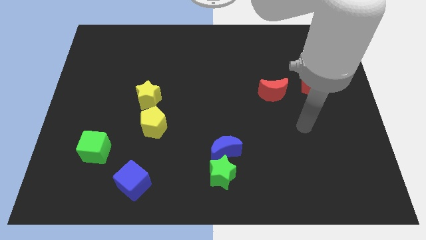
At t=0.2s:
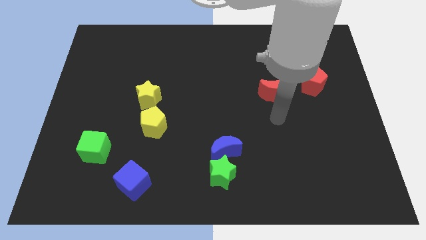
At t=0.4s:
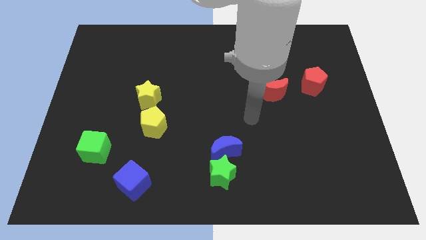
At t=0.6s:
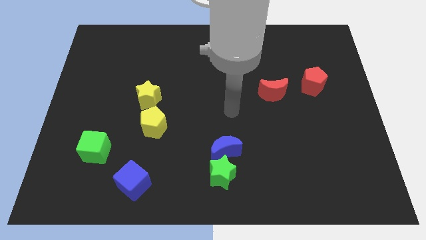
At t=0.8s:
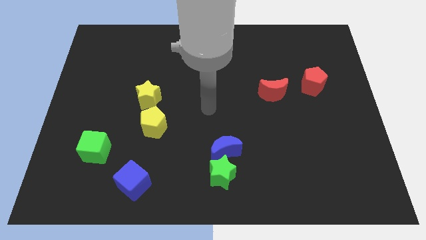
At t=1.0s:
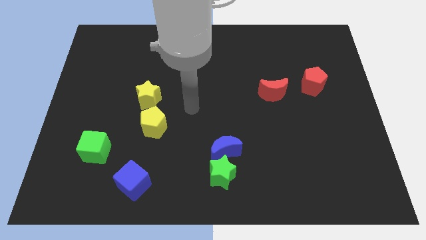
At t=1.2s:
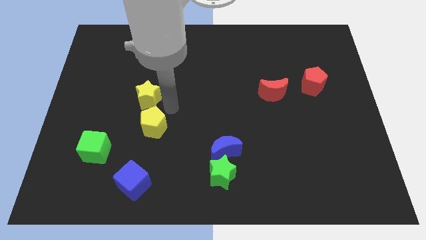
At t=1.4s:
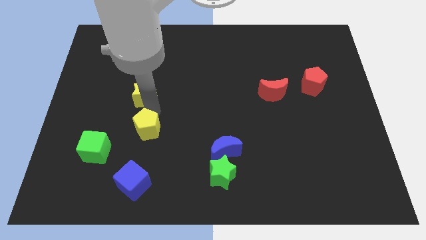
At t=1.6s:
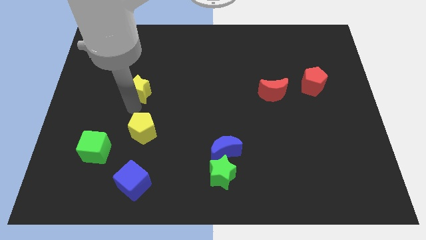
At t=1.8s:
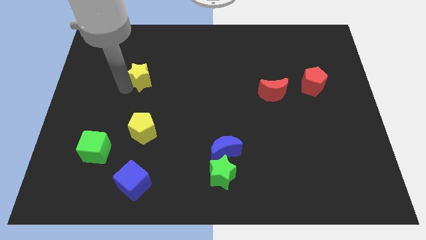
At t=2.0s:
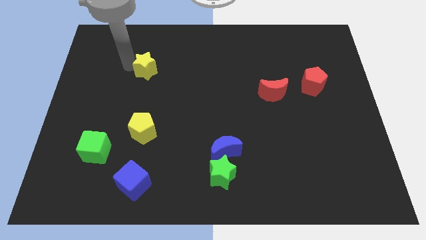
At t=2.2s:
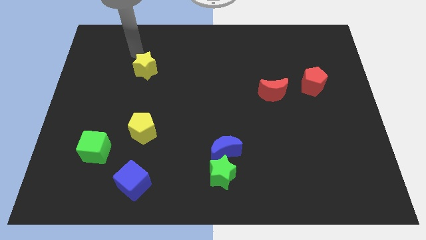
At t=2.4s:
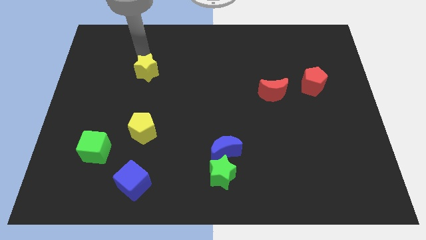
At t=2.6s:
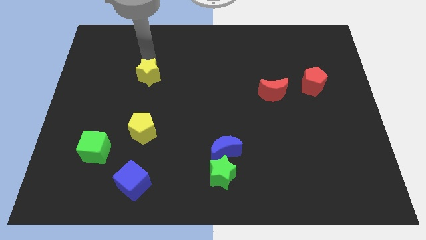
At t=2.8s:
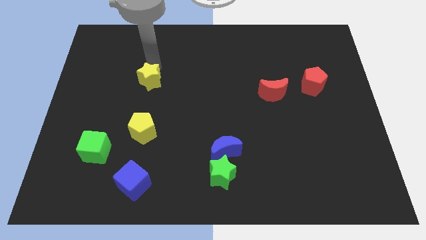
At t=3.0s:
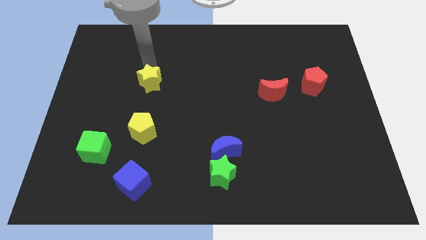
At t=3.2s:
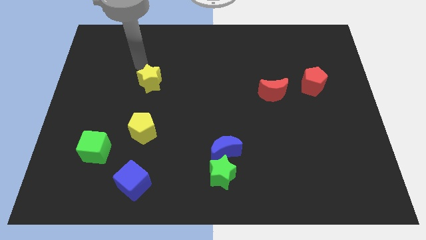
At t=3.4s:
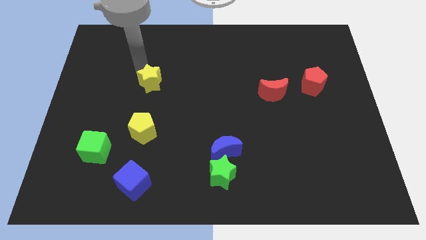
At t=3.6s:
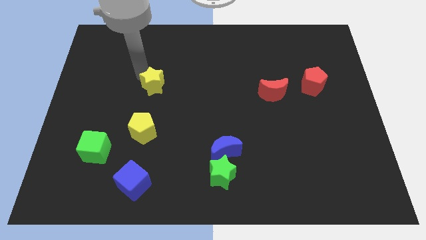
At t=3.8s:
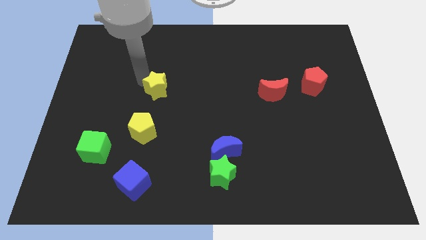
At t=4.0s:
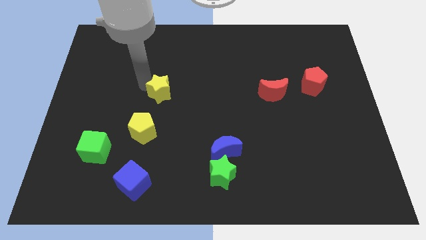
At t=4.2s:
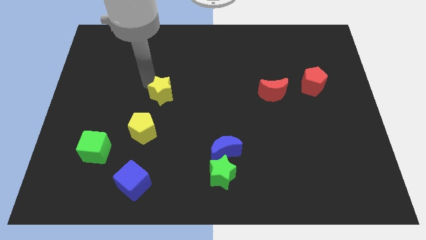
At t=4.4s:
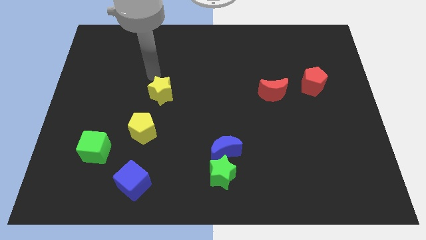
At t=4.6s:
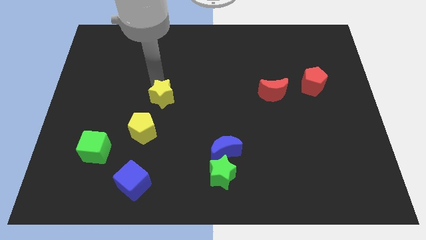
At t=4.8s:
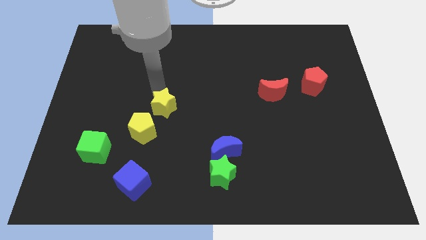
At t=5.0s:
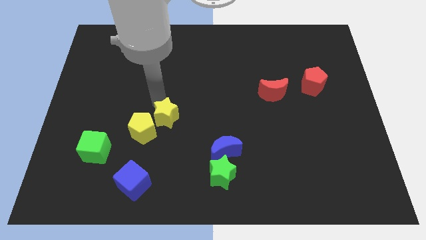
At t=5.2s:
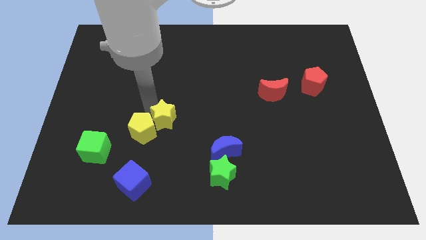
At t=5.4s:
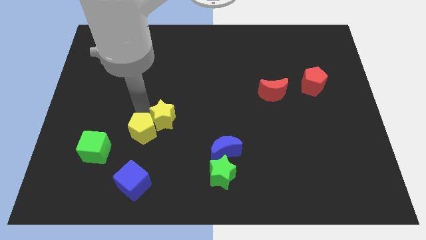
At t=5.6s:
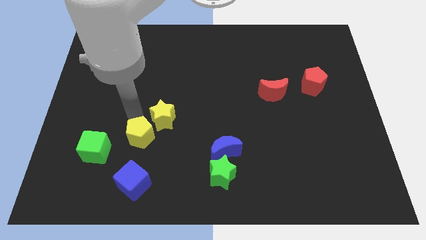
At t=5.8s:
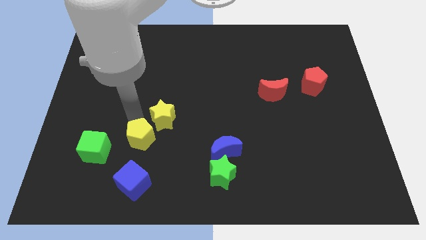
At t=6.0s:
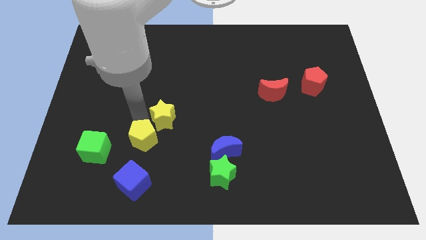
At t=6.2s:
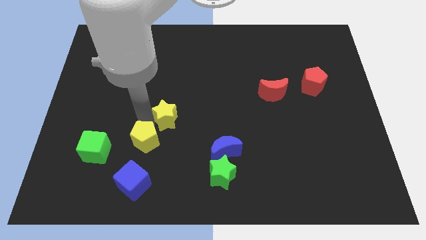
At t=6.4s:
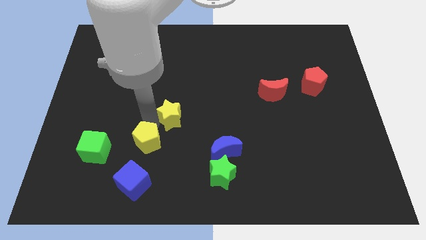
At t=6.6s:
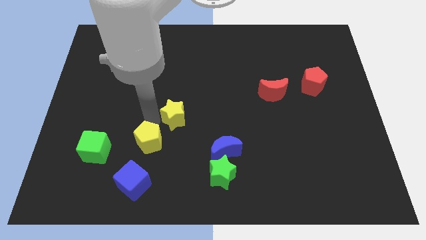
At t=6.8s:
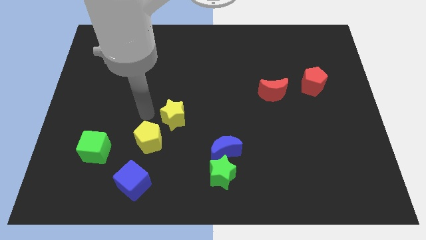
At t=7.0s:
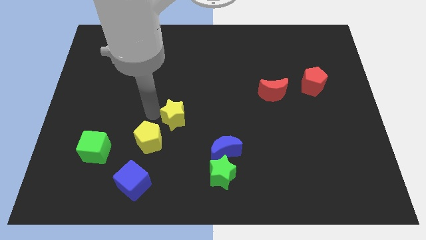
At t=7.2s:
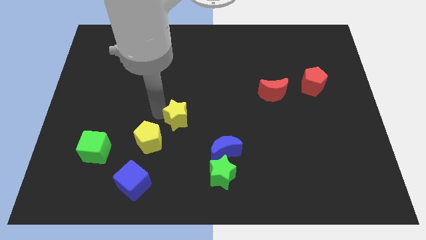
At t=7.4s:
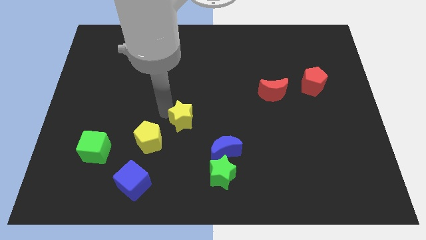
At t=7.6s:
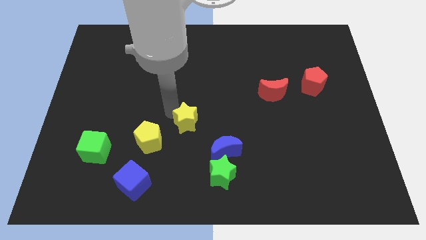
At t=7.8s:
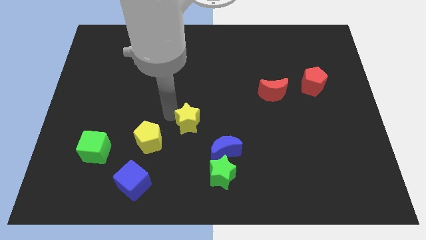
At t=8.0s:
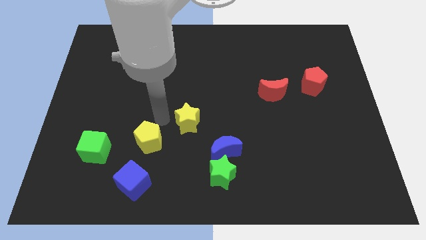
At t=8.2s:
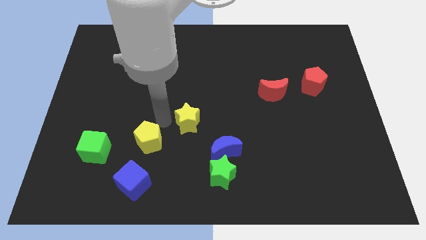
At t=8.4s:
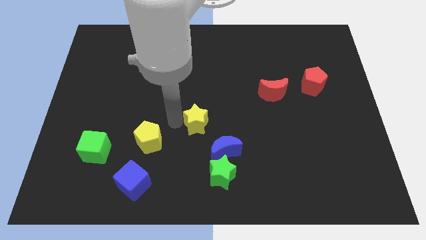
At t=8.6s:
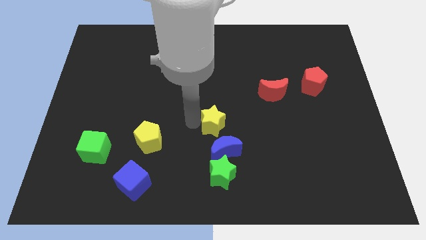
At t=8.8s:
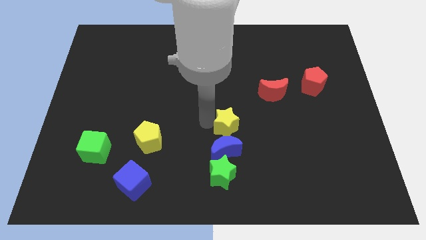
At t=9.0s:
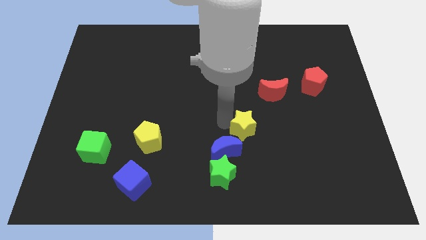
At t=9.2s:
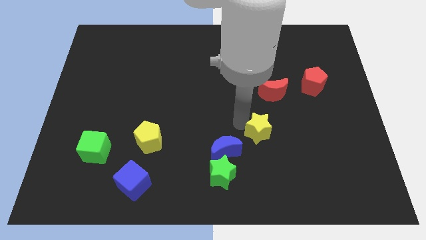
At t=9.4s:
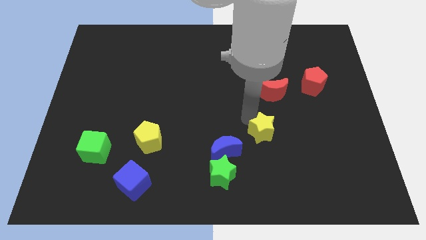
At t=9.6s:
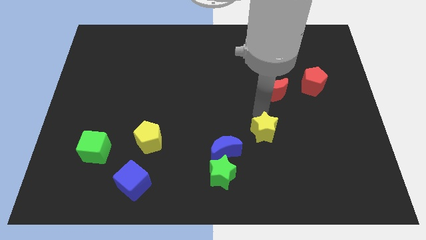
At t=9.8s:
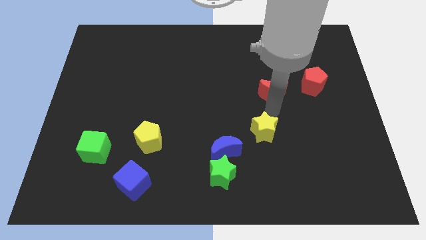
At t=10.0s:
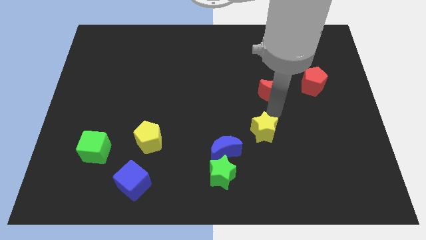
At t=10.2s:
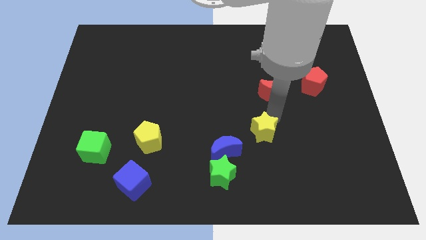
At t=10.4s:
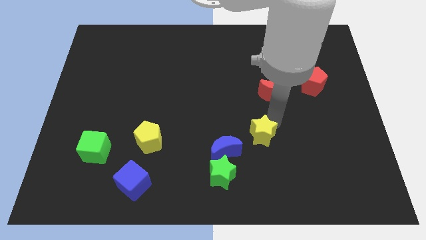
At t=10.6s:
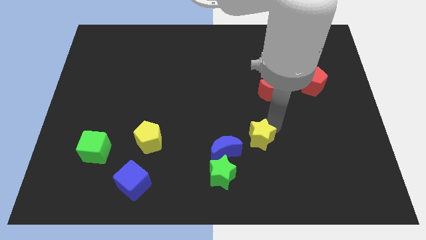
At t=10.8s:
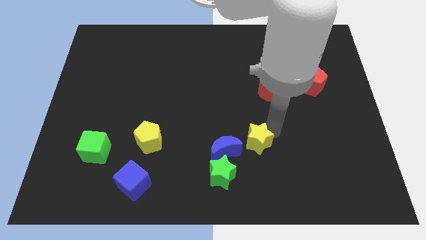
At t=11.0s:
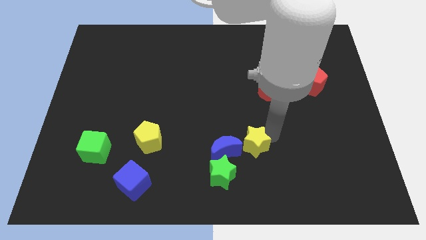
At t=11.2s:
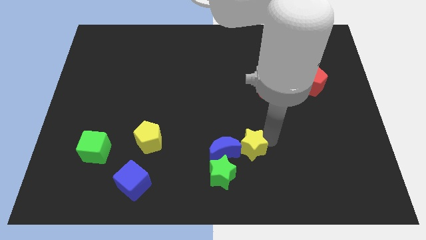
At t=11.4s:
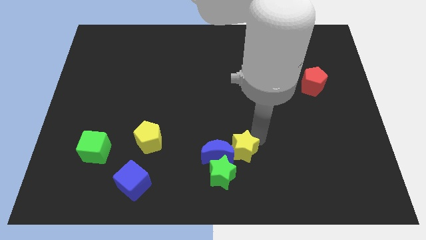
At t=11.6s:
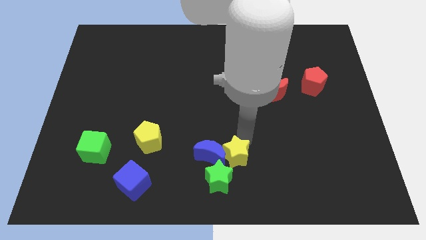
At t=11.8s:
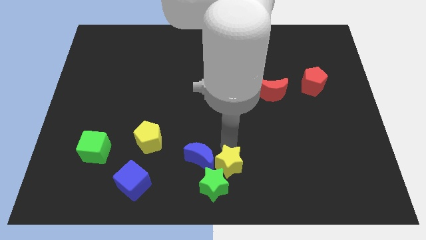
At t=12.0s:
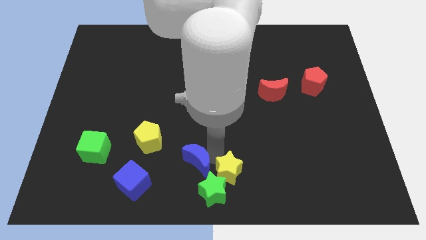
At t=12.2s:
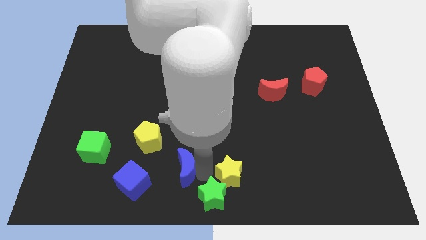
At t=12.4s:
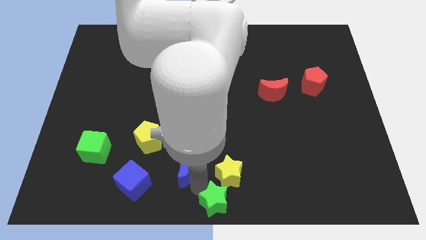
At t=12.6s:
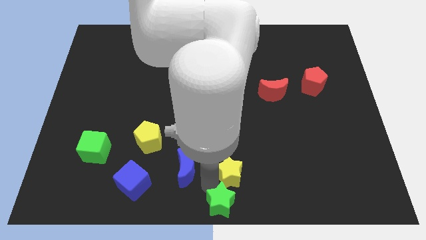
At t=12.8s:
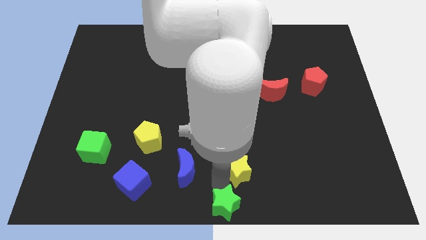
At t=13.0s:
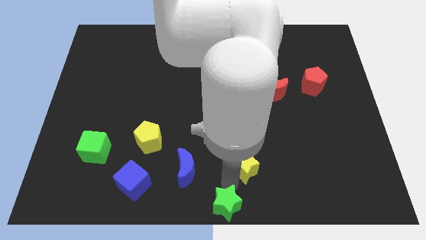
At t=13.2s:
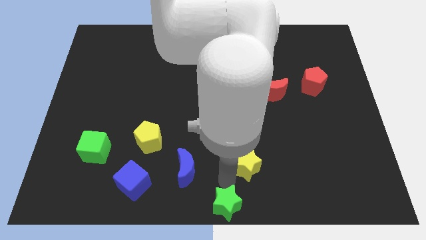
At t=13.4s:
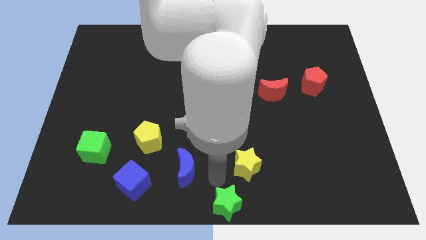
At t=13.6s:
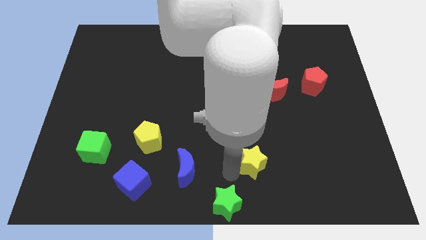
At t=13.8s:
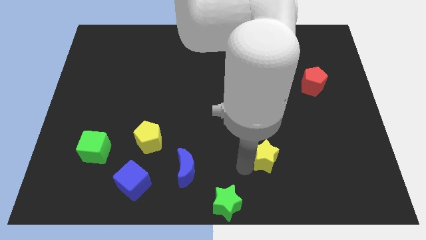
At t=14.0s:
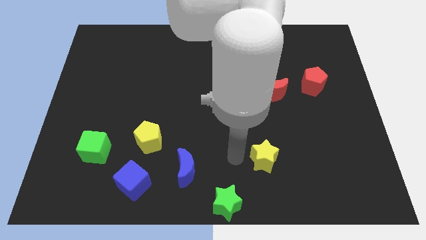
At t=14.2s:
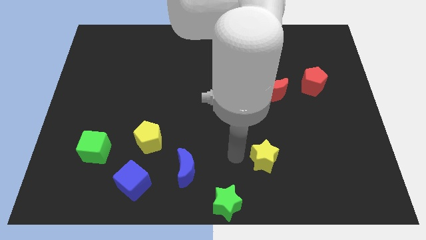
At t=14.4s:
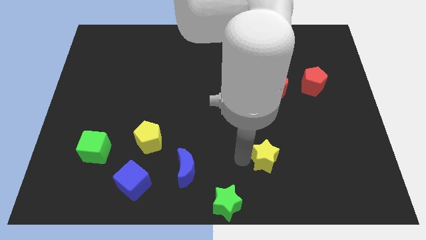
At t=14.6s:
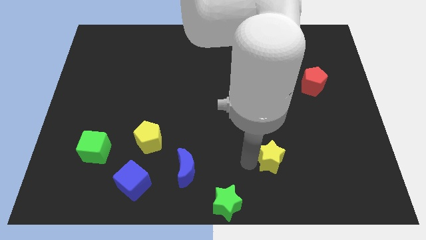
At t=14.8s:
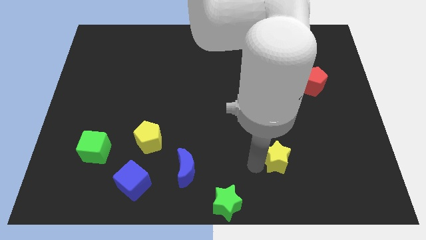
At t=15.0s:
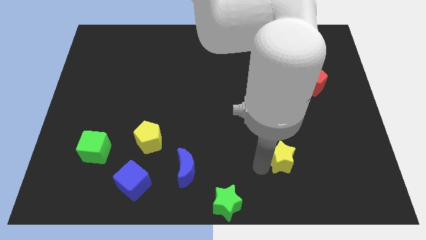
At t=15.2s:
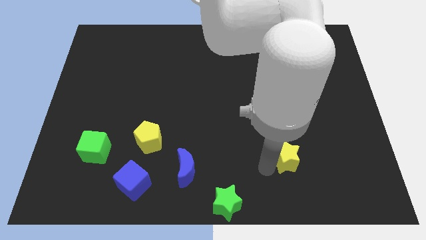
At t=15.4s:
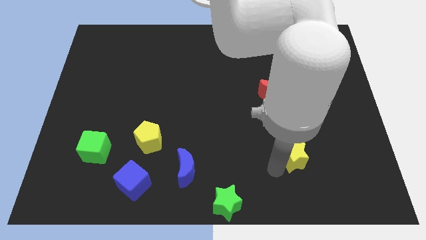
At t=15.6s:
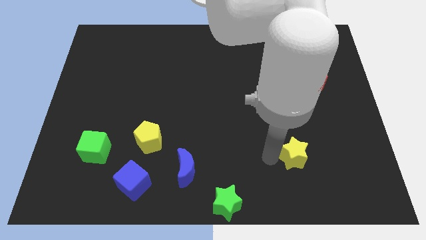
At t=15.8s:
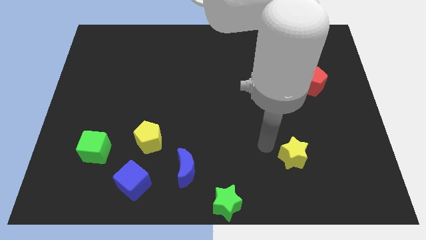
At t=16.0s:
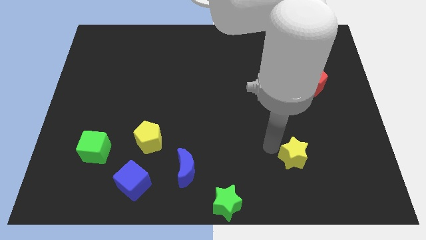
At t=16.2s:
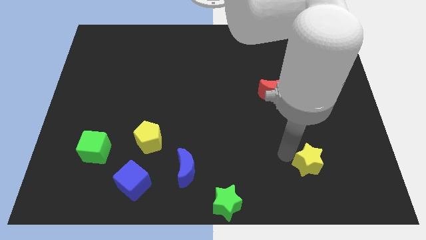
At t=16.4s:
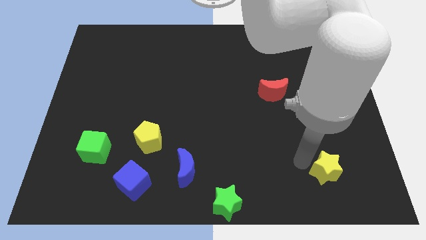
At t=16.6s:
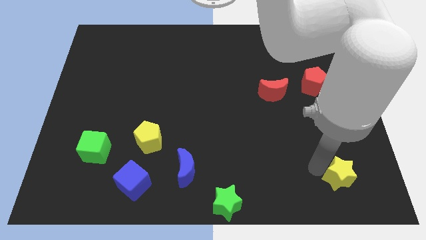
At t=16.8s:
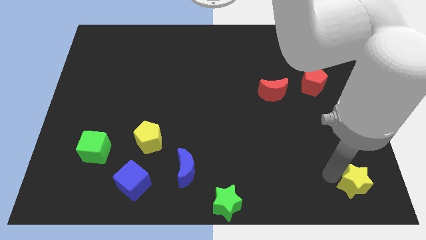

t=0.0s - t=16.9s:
slide the yellow star to the bottom right of the board
